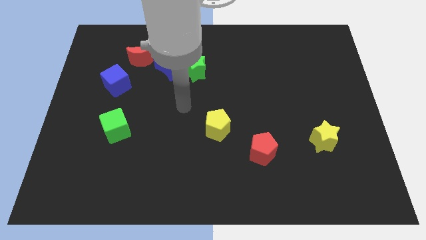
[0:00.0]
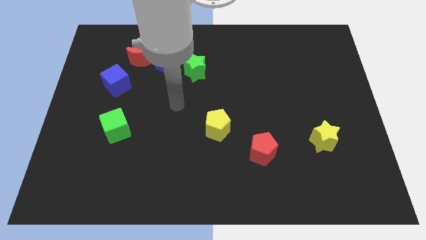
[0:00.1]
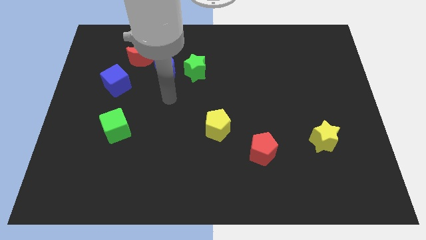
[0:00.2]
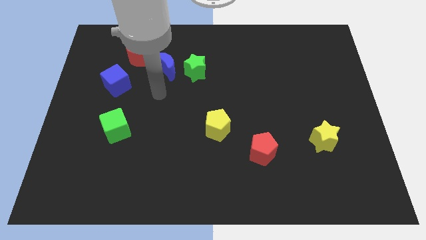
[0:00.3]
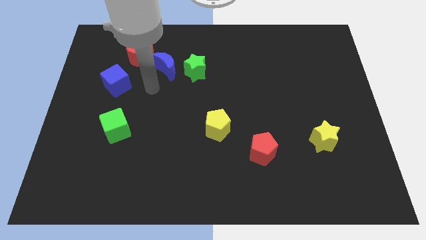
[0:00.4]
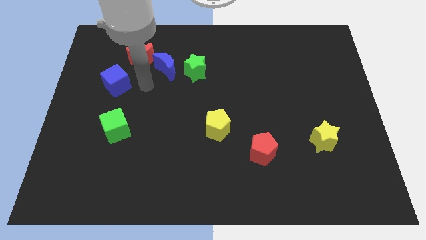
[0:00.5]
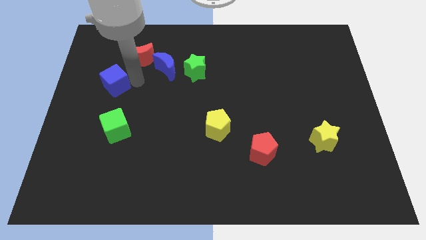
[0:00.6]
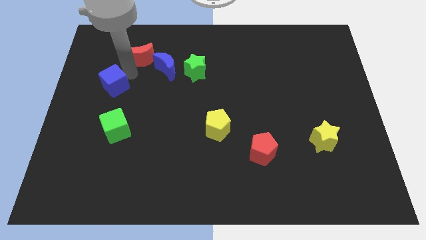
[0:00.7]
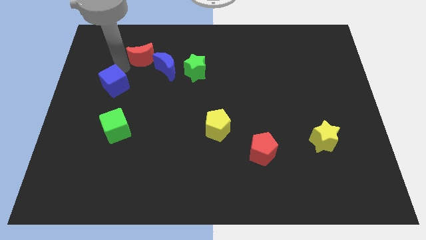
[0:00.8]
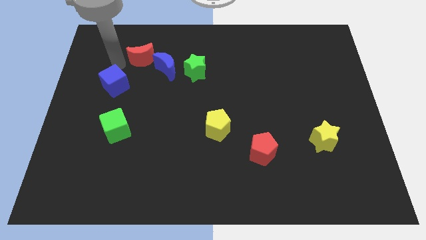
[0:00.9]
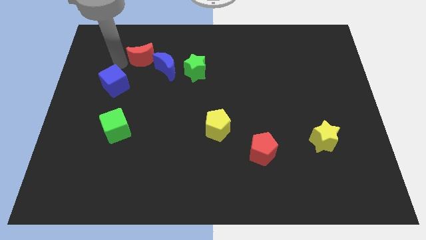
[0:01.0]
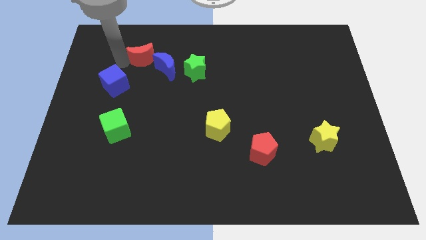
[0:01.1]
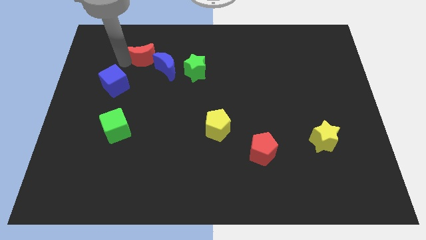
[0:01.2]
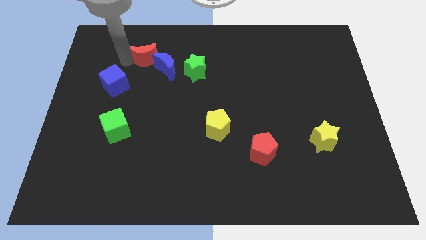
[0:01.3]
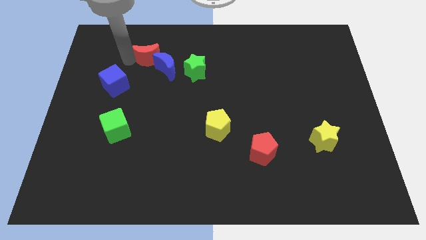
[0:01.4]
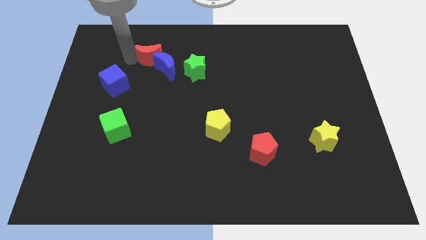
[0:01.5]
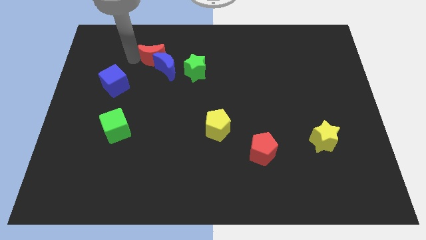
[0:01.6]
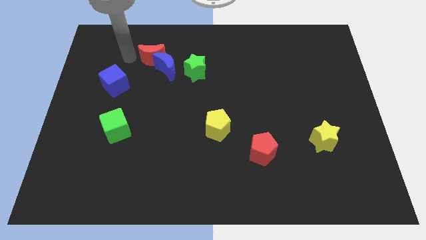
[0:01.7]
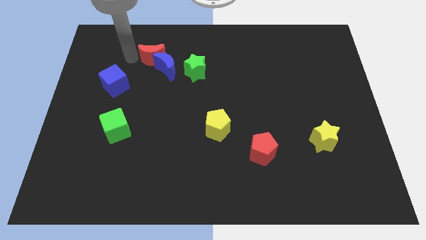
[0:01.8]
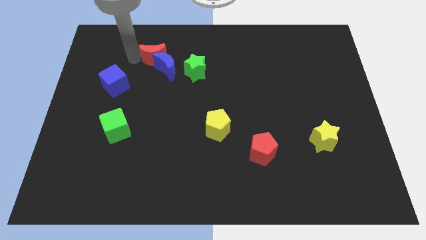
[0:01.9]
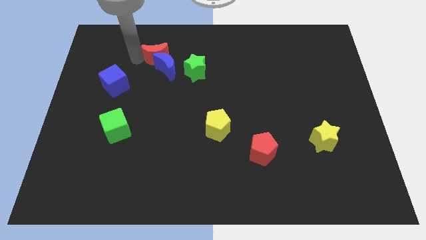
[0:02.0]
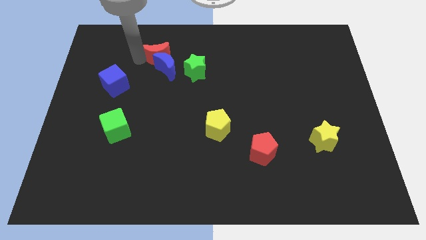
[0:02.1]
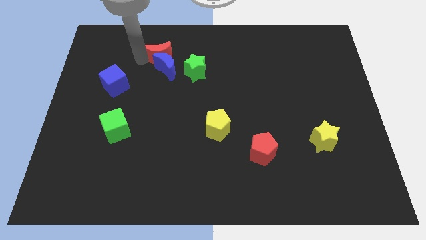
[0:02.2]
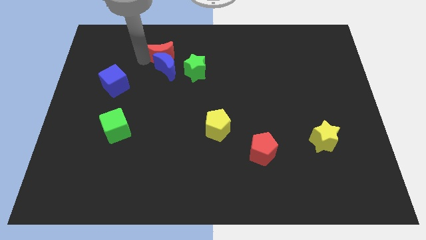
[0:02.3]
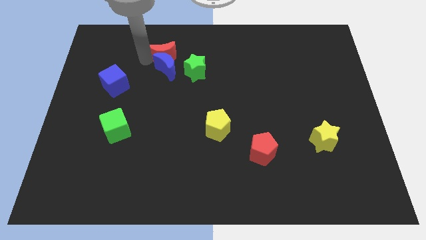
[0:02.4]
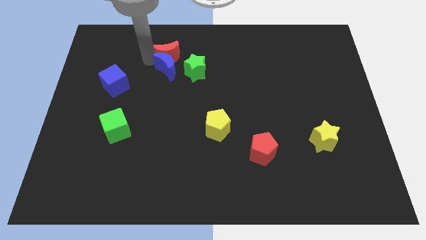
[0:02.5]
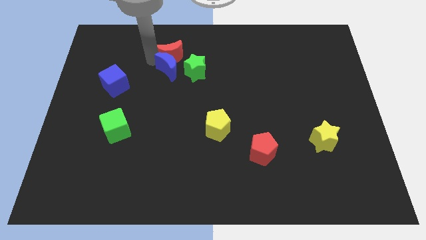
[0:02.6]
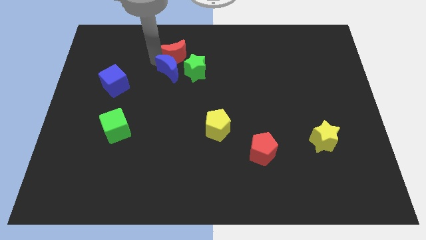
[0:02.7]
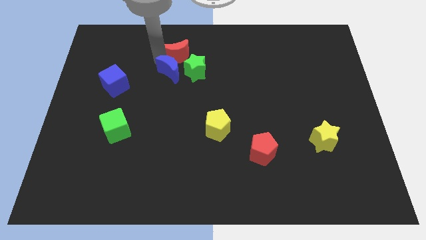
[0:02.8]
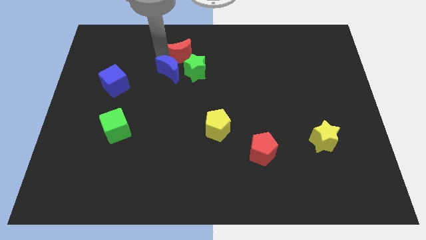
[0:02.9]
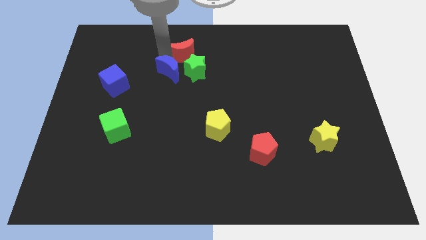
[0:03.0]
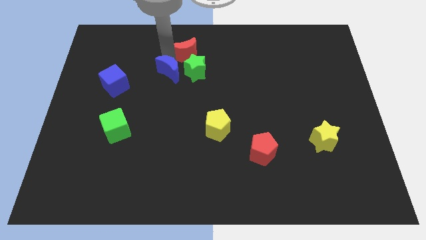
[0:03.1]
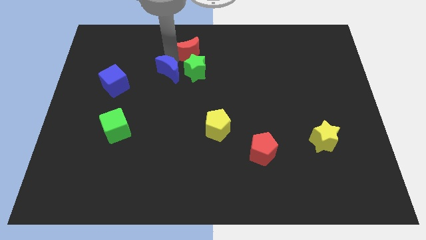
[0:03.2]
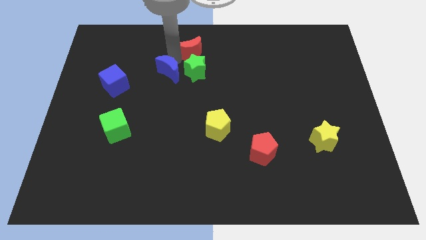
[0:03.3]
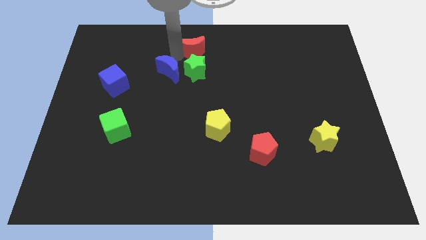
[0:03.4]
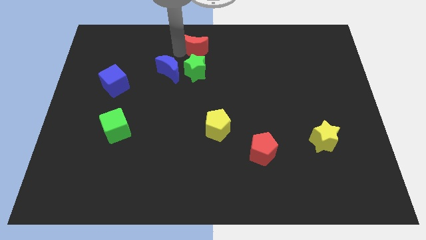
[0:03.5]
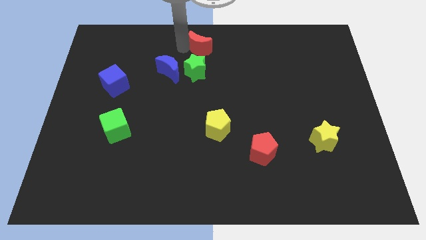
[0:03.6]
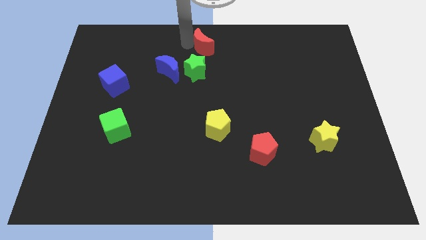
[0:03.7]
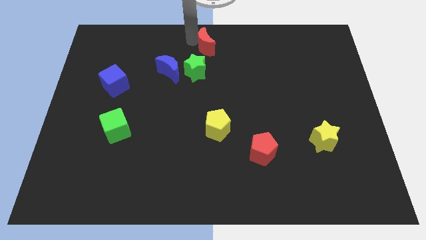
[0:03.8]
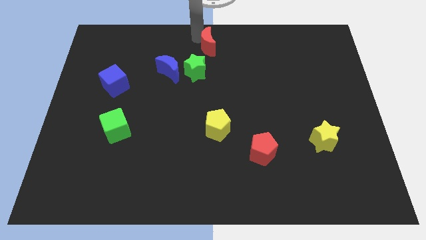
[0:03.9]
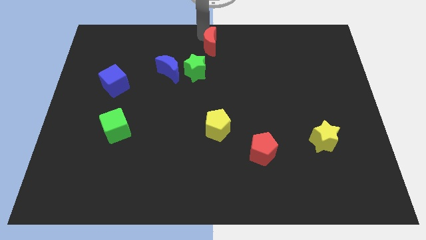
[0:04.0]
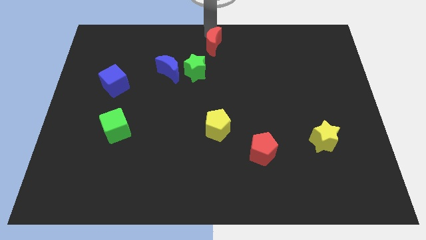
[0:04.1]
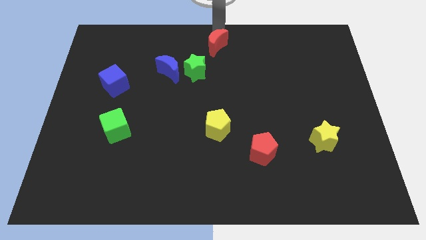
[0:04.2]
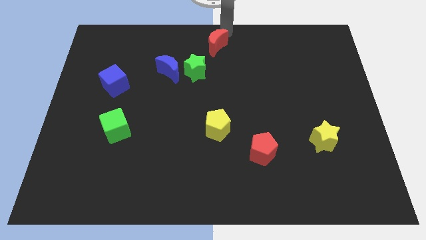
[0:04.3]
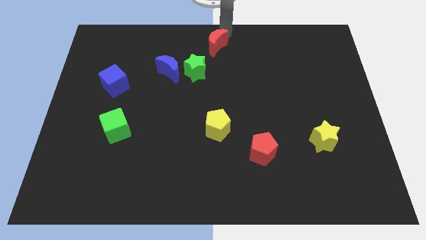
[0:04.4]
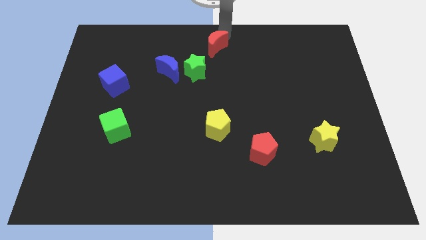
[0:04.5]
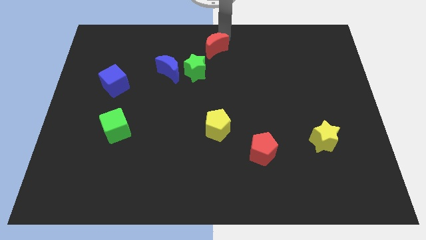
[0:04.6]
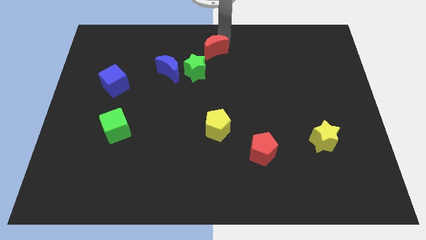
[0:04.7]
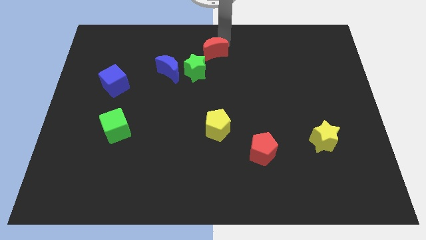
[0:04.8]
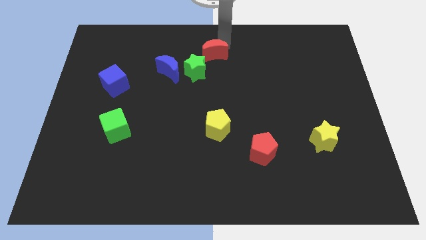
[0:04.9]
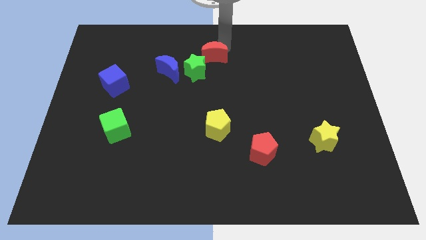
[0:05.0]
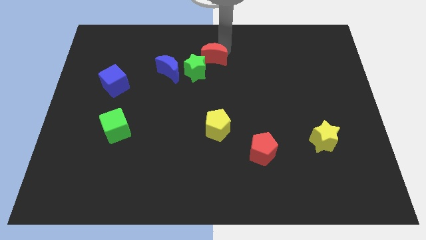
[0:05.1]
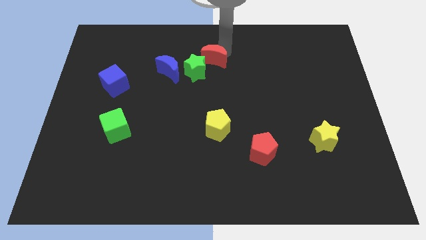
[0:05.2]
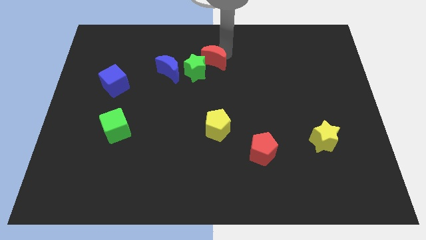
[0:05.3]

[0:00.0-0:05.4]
put the red moon next to the green star

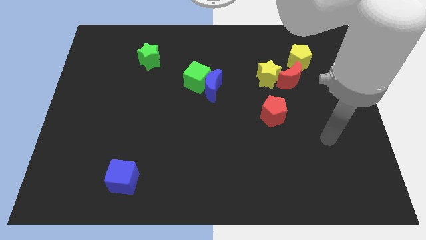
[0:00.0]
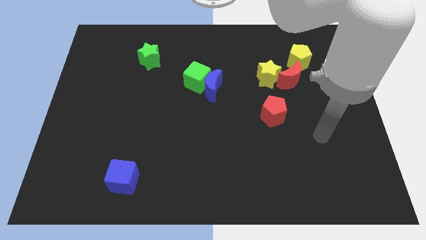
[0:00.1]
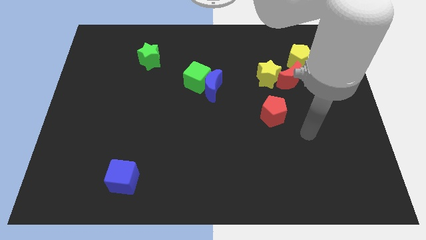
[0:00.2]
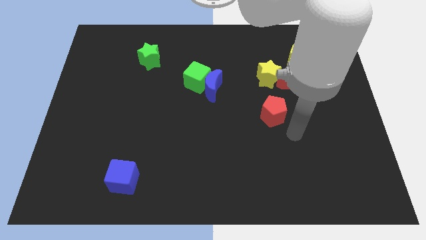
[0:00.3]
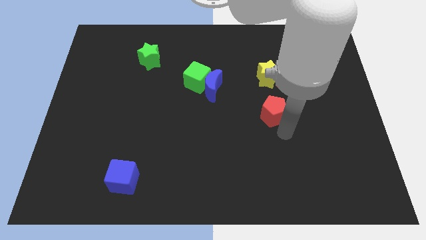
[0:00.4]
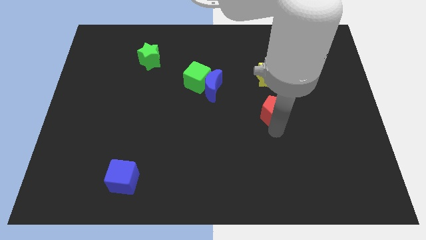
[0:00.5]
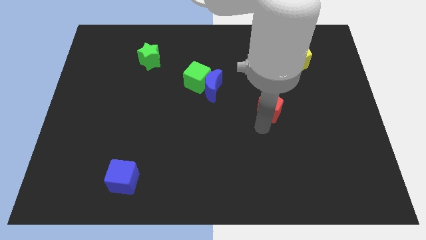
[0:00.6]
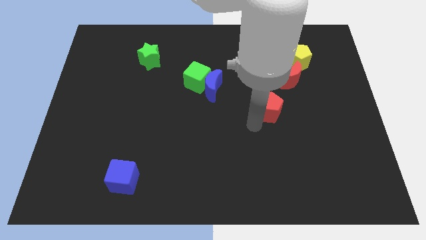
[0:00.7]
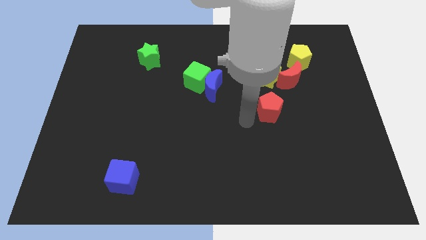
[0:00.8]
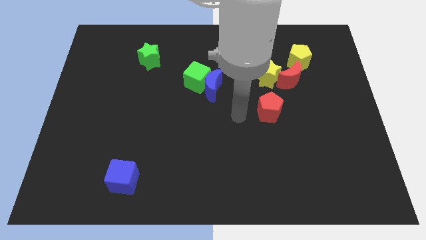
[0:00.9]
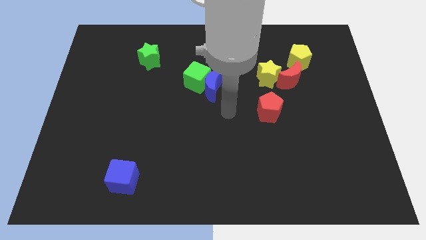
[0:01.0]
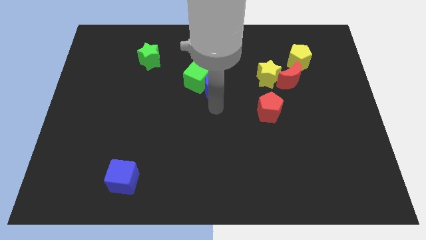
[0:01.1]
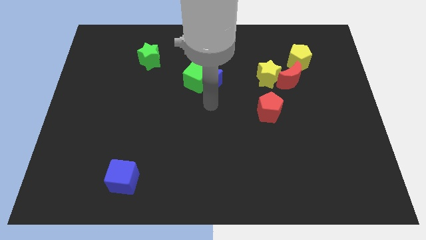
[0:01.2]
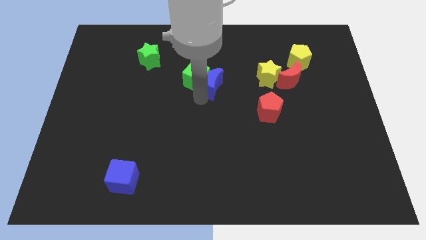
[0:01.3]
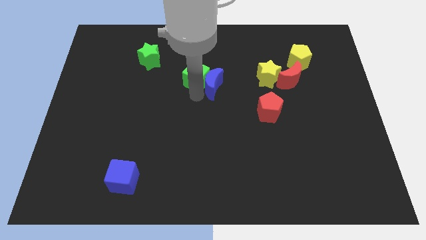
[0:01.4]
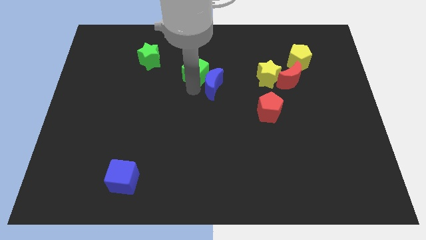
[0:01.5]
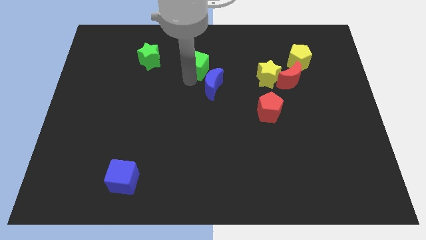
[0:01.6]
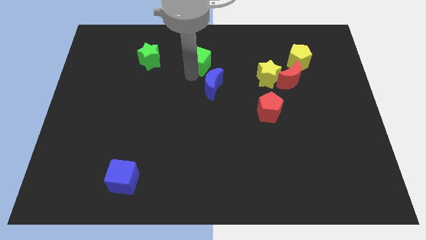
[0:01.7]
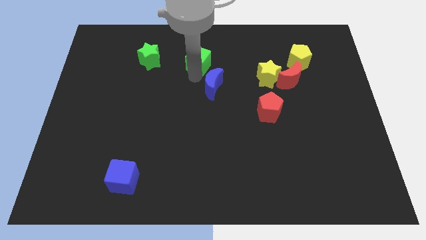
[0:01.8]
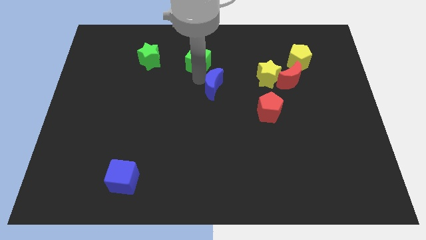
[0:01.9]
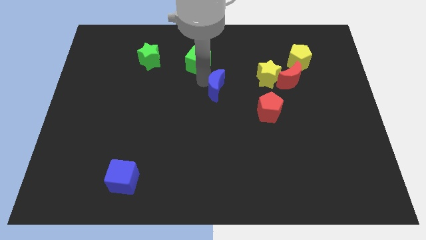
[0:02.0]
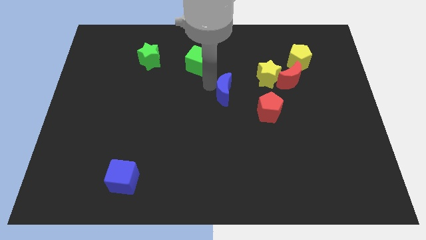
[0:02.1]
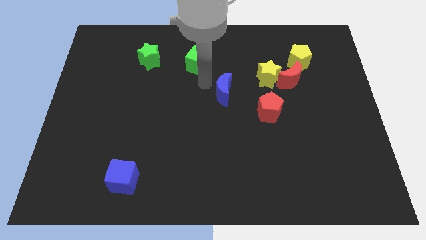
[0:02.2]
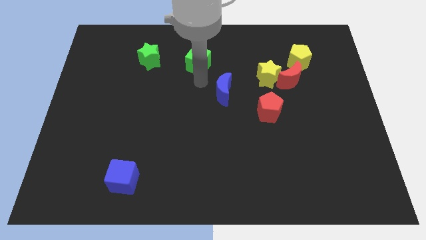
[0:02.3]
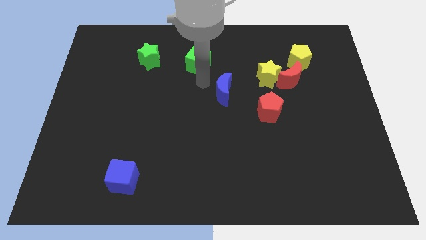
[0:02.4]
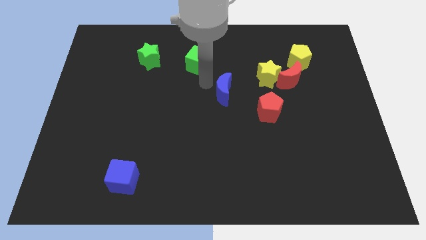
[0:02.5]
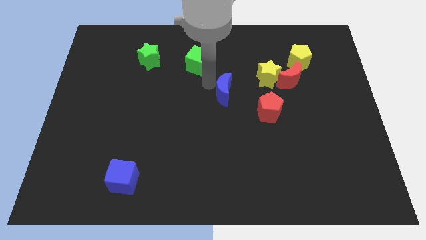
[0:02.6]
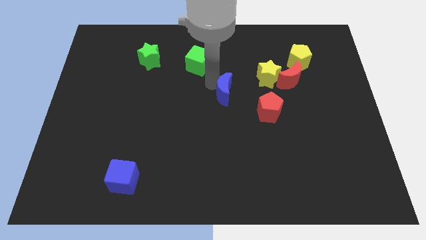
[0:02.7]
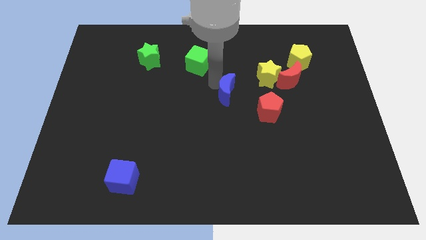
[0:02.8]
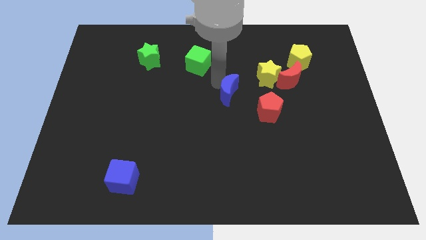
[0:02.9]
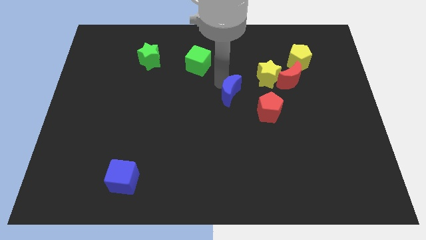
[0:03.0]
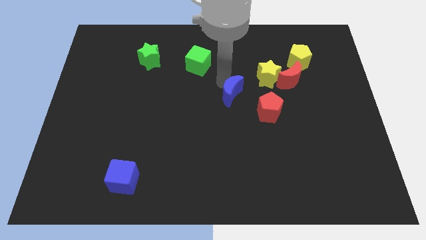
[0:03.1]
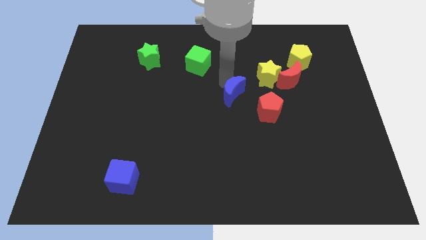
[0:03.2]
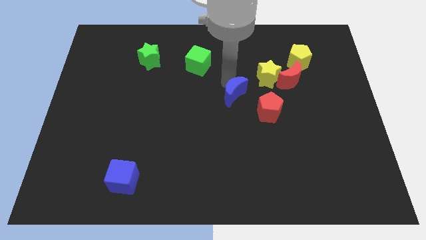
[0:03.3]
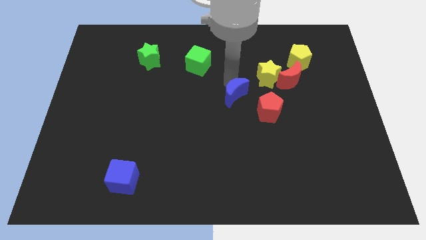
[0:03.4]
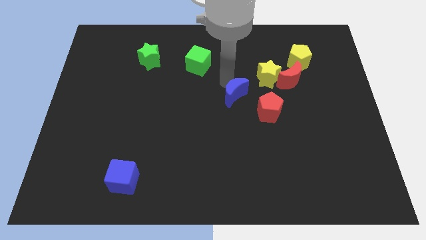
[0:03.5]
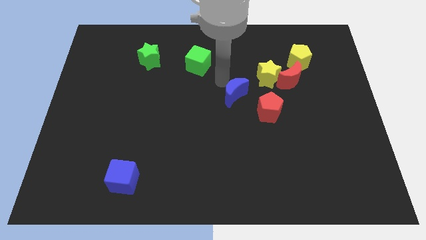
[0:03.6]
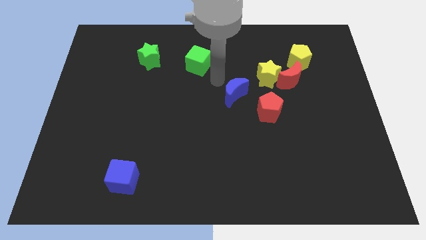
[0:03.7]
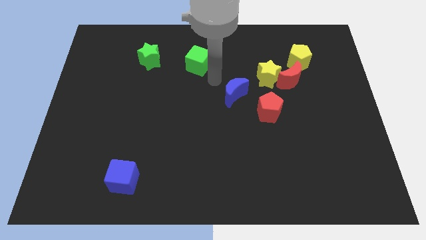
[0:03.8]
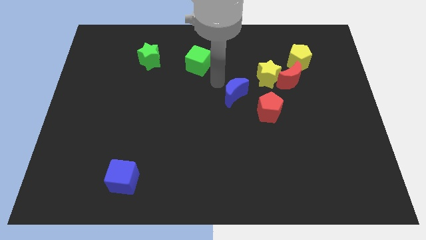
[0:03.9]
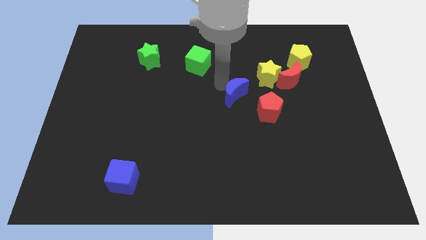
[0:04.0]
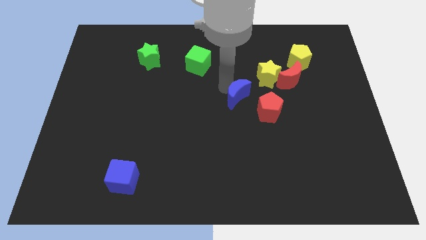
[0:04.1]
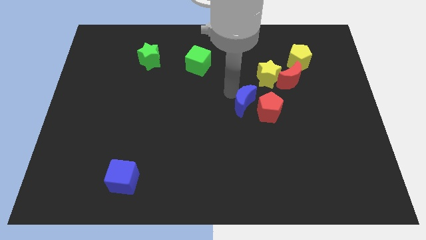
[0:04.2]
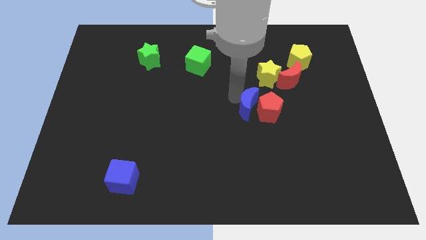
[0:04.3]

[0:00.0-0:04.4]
push the blue moon to the red pentagon
